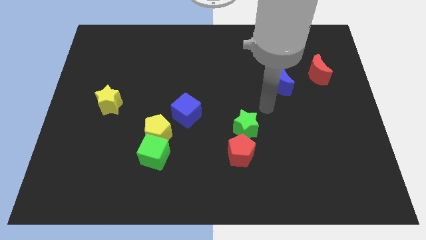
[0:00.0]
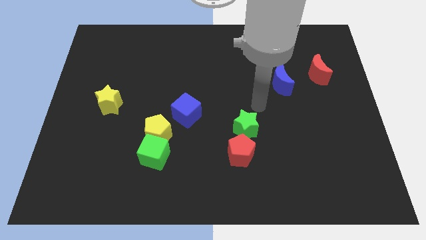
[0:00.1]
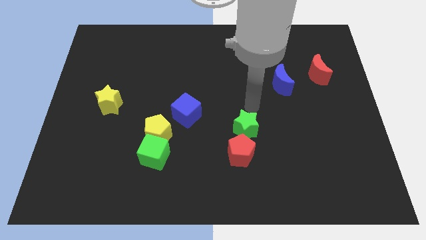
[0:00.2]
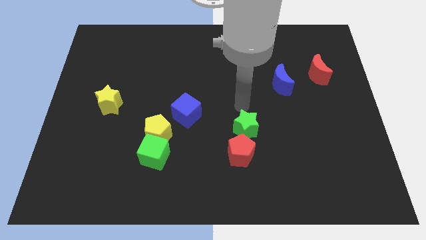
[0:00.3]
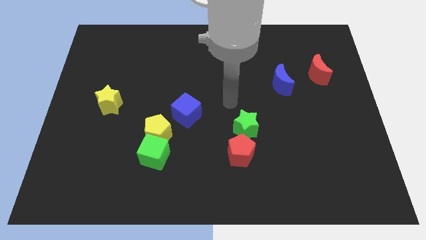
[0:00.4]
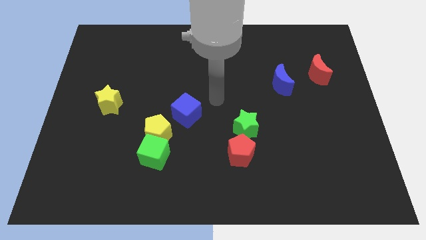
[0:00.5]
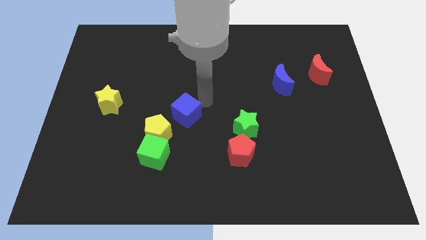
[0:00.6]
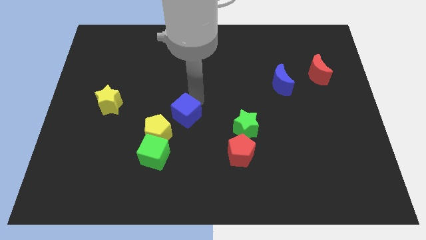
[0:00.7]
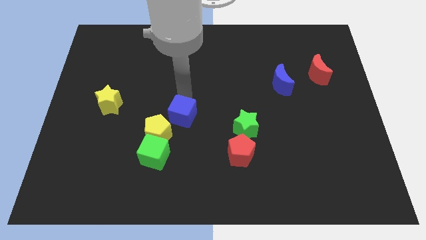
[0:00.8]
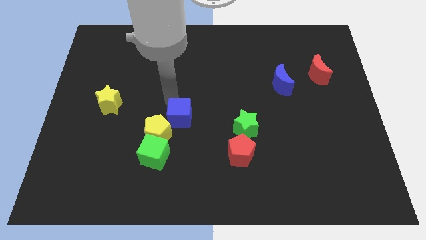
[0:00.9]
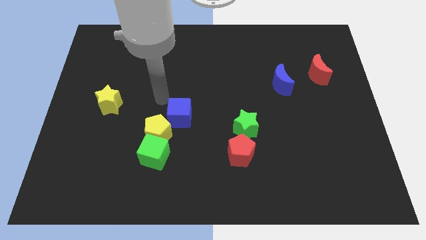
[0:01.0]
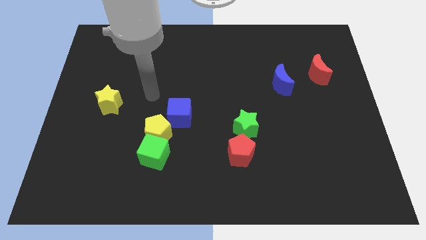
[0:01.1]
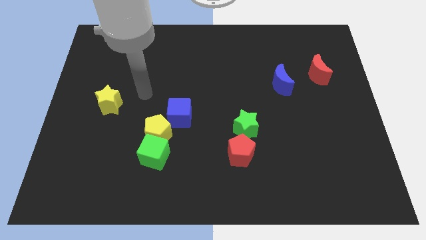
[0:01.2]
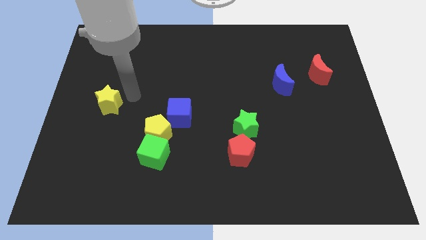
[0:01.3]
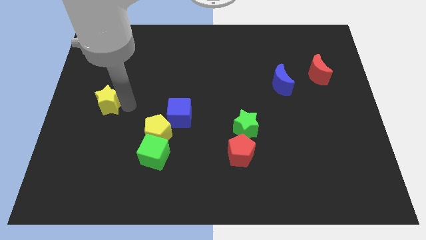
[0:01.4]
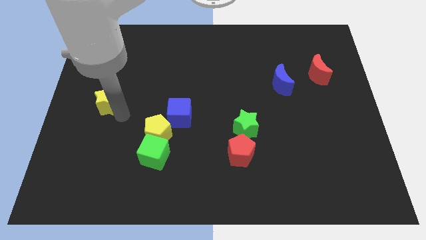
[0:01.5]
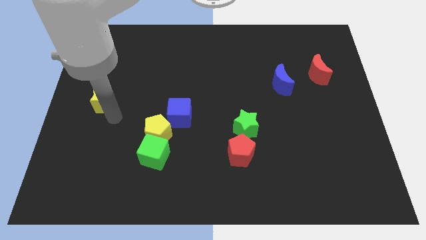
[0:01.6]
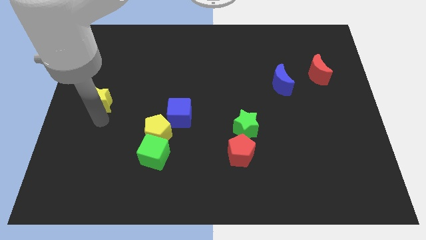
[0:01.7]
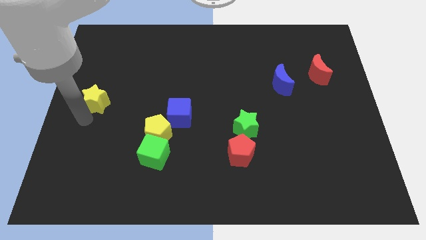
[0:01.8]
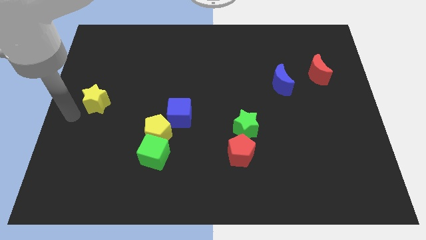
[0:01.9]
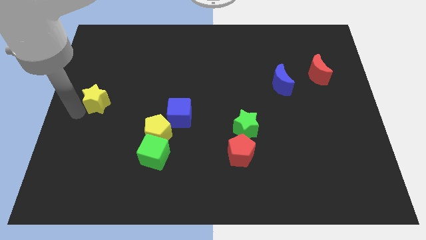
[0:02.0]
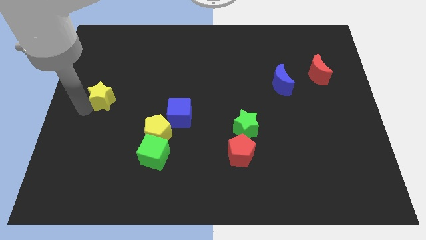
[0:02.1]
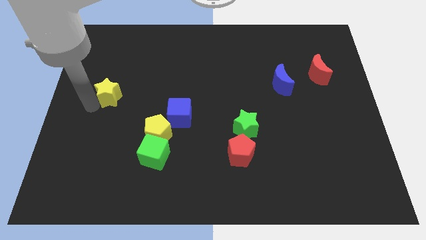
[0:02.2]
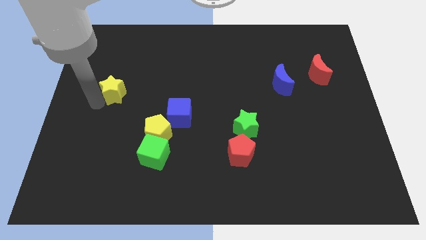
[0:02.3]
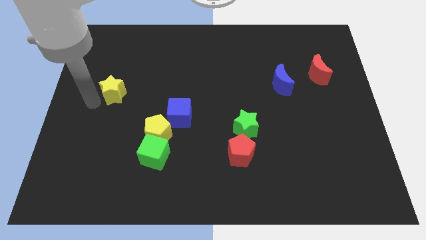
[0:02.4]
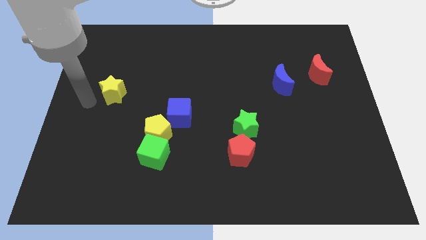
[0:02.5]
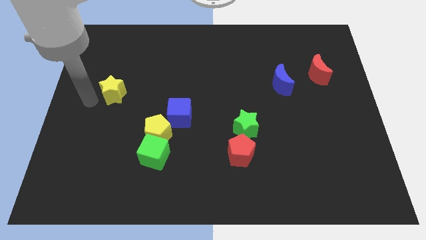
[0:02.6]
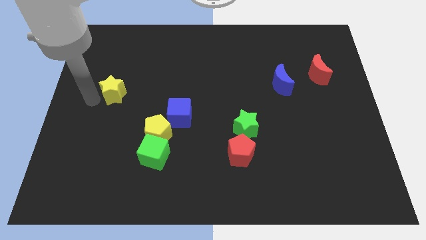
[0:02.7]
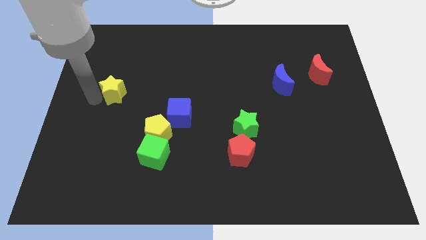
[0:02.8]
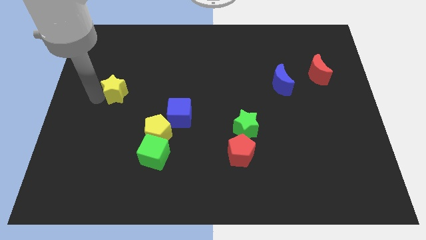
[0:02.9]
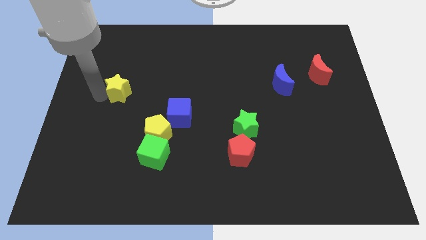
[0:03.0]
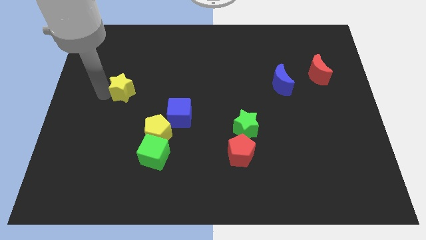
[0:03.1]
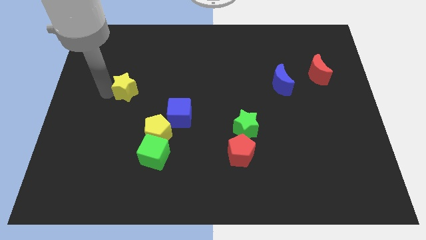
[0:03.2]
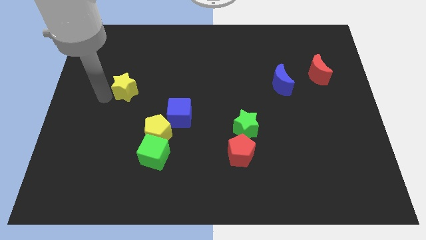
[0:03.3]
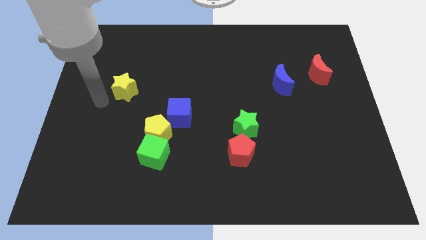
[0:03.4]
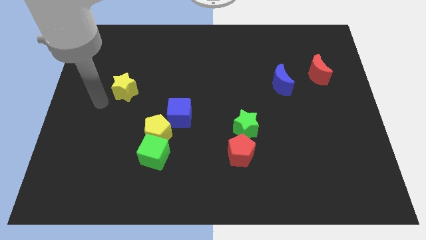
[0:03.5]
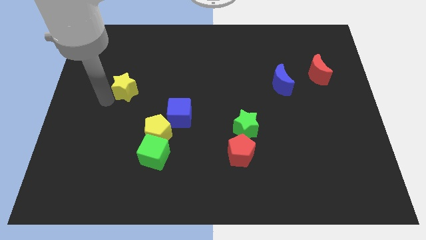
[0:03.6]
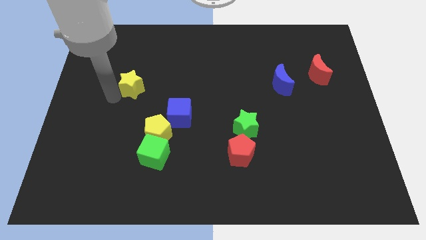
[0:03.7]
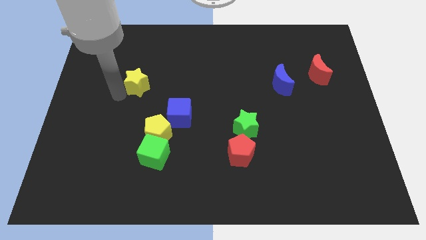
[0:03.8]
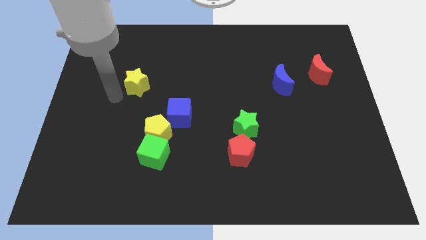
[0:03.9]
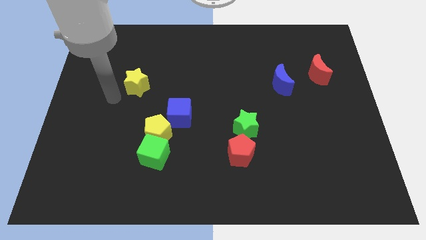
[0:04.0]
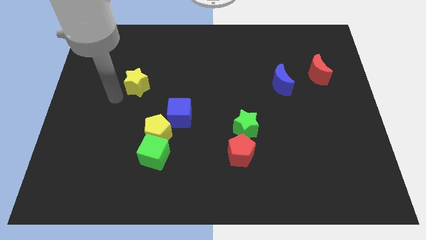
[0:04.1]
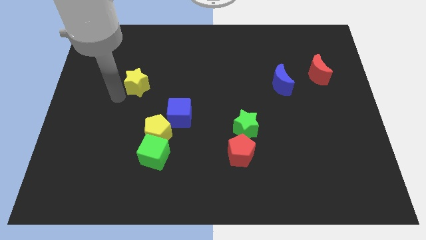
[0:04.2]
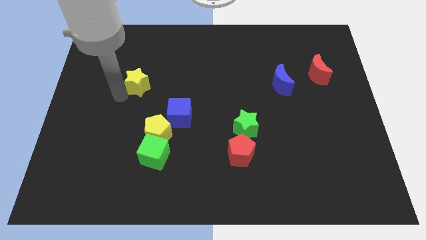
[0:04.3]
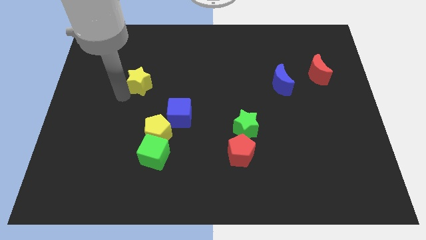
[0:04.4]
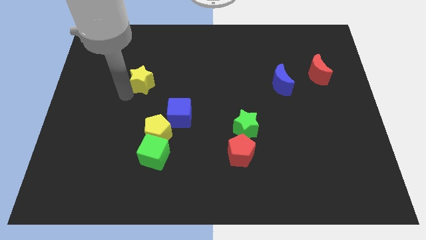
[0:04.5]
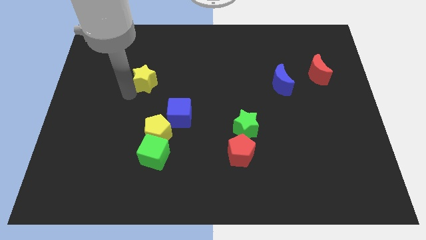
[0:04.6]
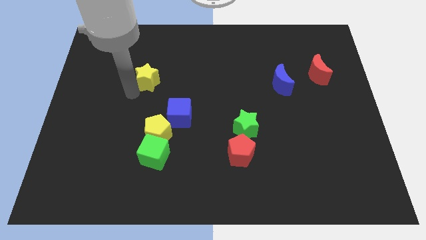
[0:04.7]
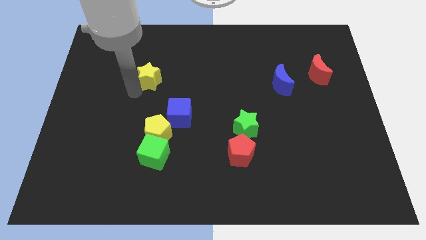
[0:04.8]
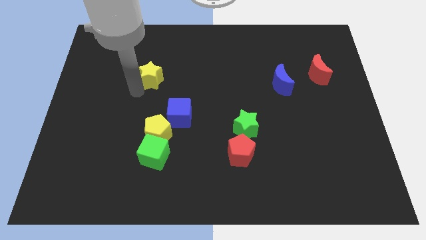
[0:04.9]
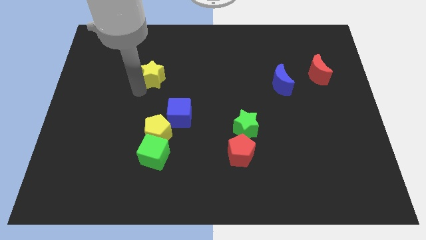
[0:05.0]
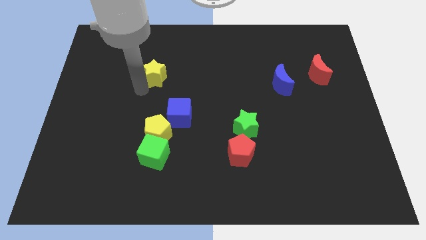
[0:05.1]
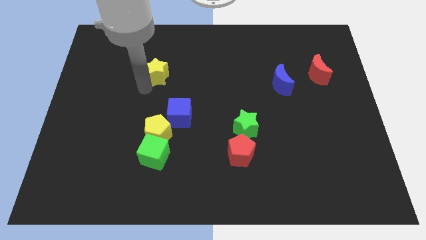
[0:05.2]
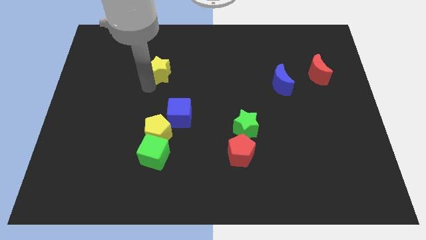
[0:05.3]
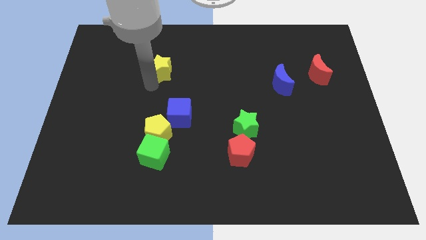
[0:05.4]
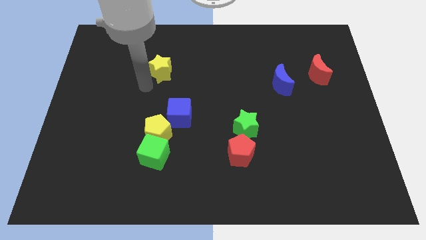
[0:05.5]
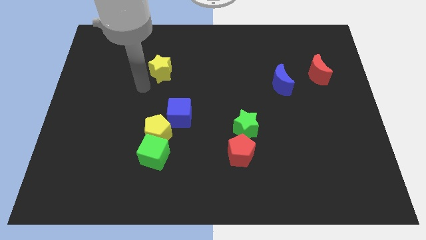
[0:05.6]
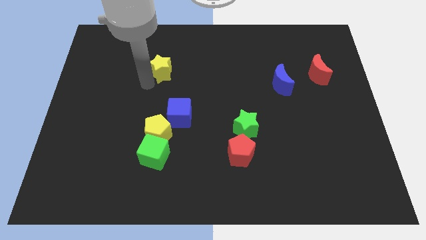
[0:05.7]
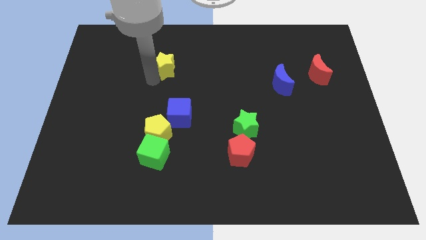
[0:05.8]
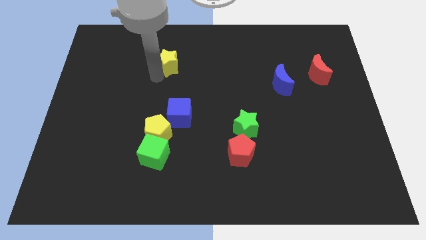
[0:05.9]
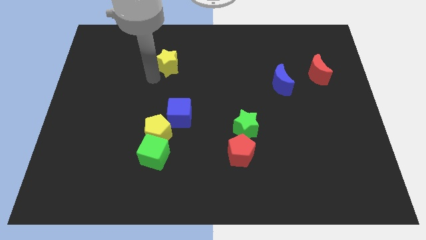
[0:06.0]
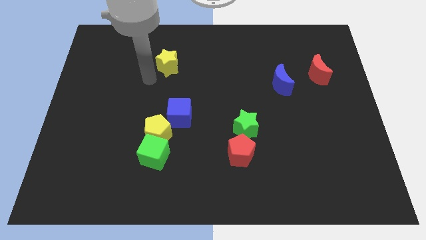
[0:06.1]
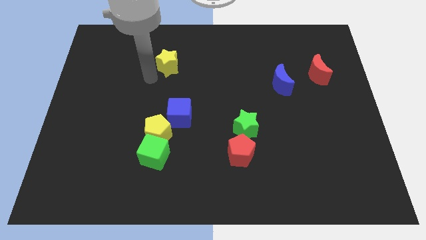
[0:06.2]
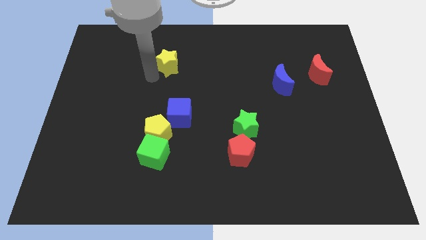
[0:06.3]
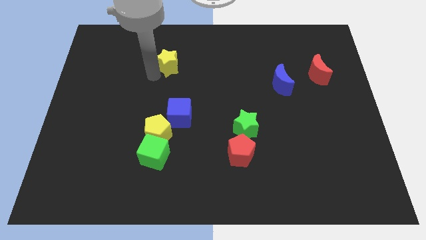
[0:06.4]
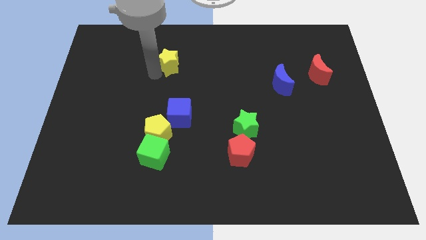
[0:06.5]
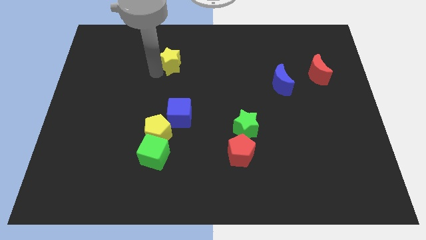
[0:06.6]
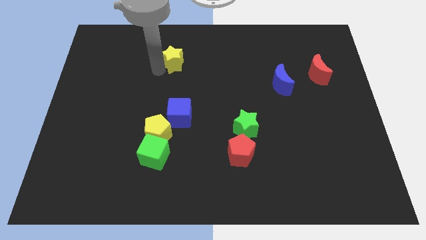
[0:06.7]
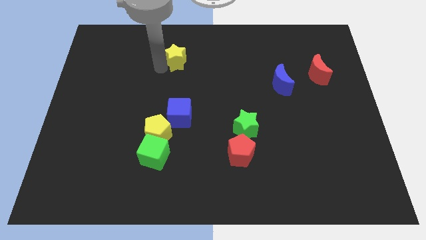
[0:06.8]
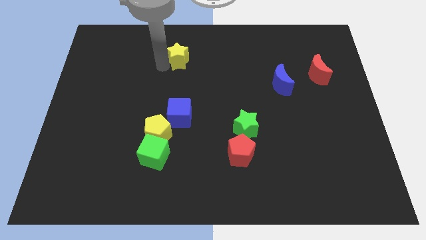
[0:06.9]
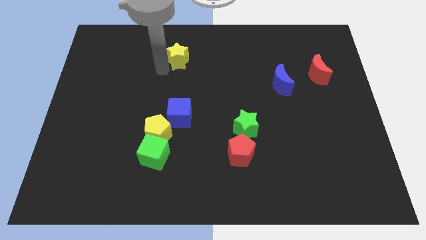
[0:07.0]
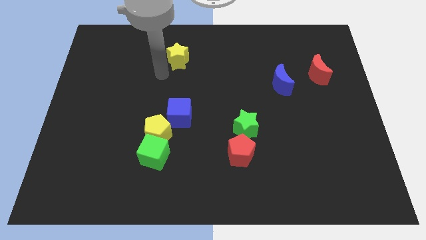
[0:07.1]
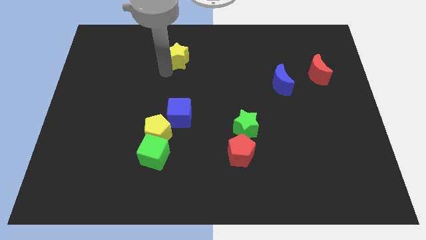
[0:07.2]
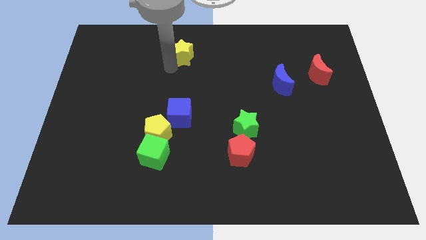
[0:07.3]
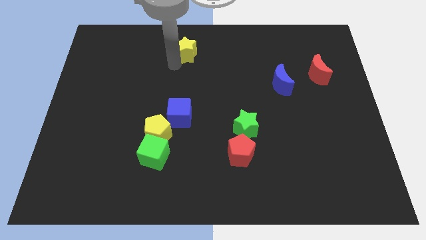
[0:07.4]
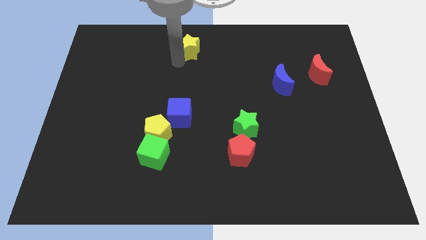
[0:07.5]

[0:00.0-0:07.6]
move the yellow star to the towards your base
